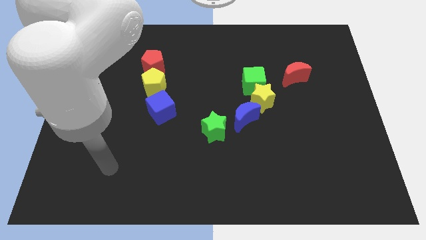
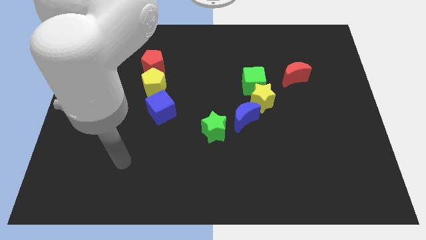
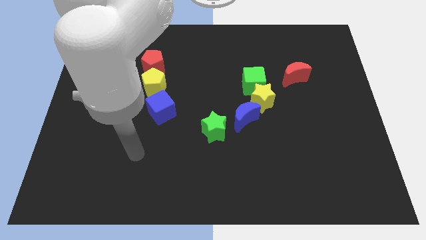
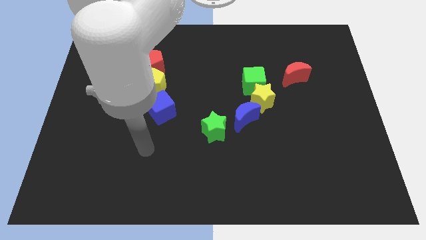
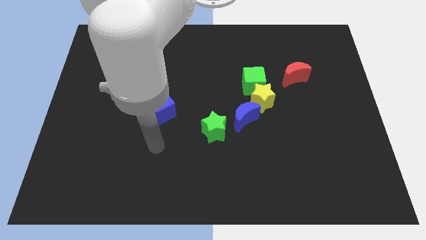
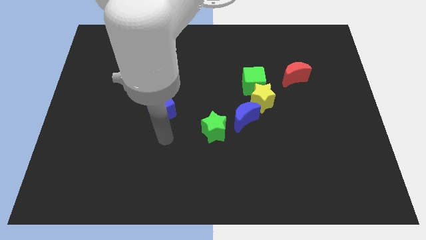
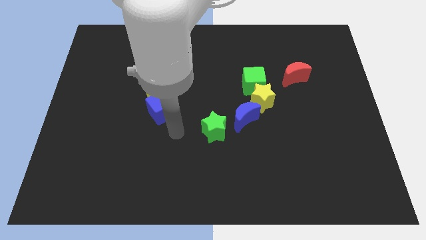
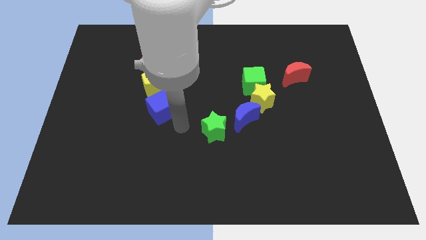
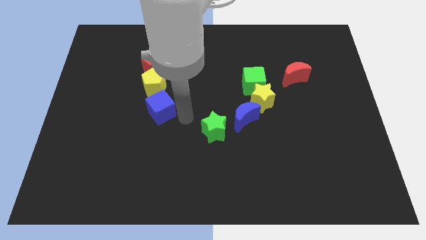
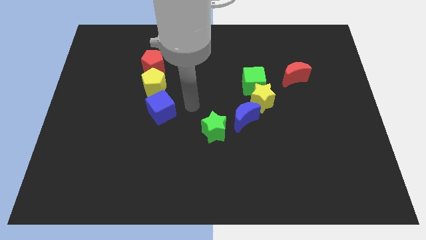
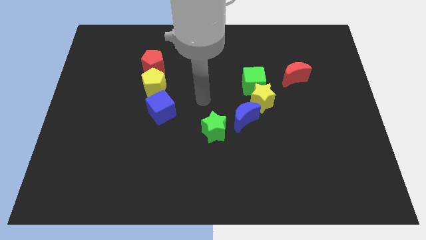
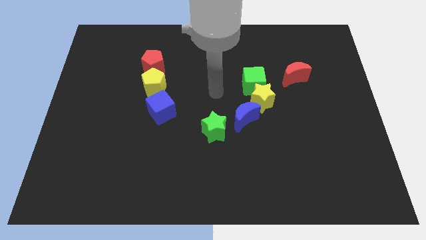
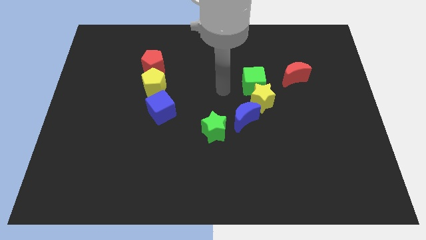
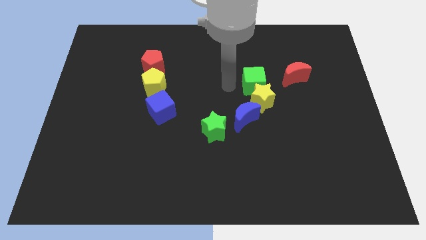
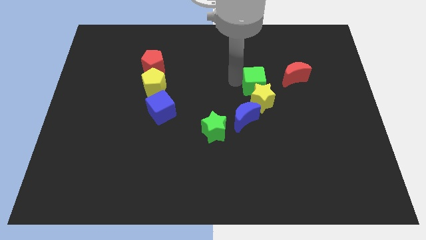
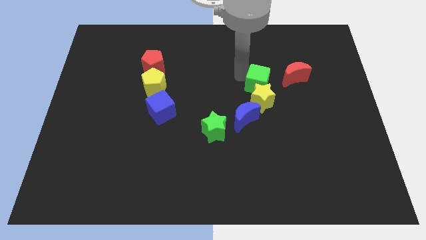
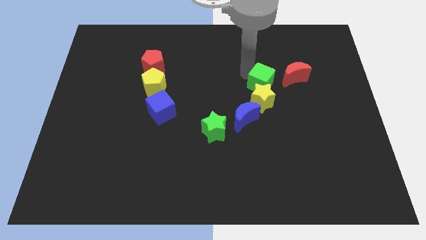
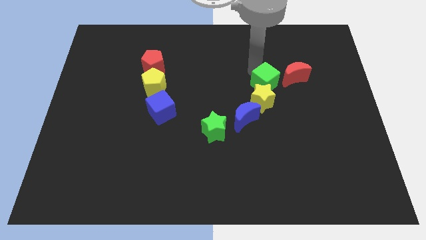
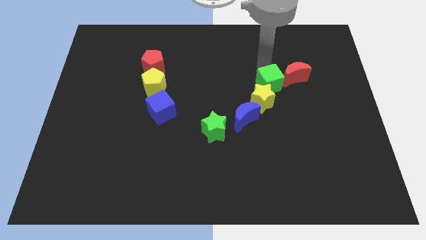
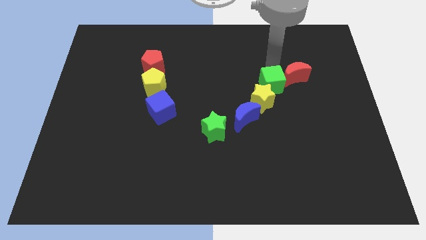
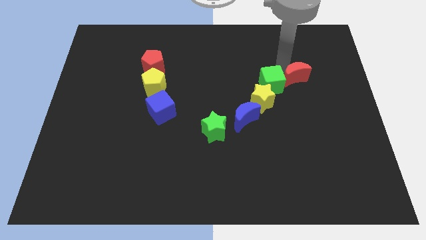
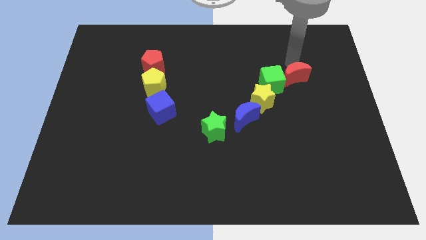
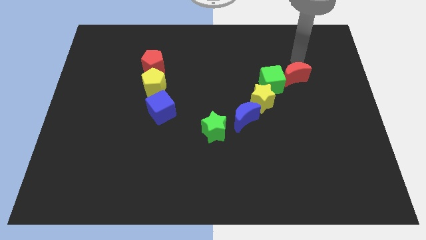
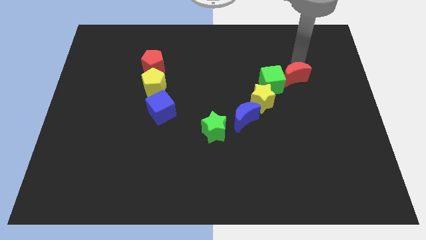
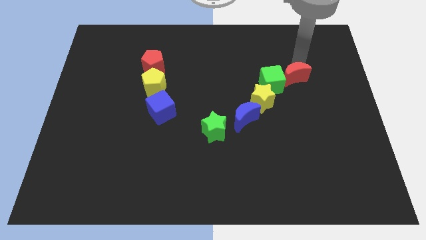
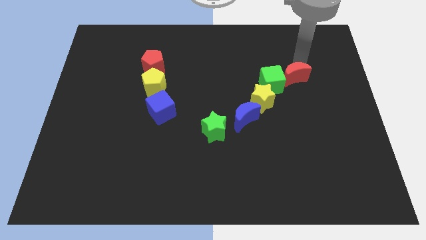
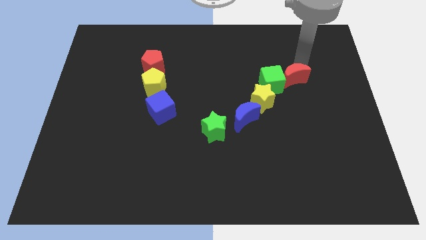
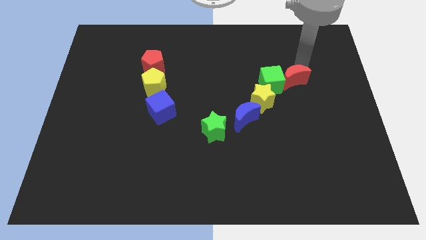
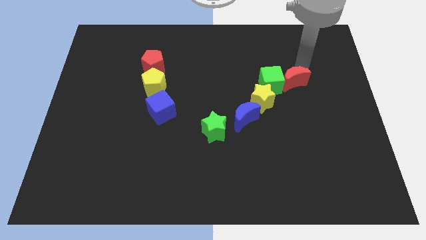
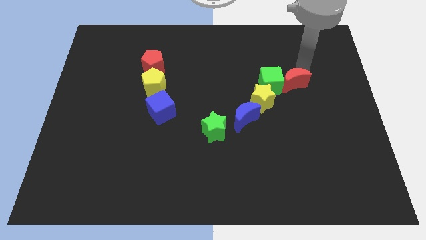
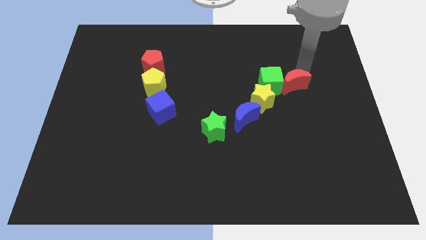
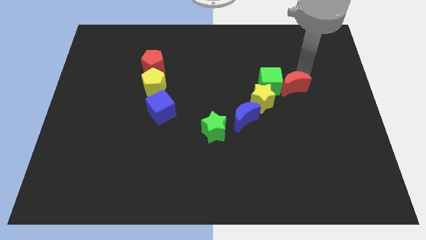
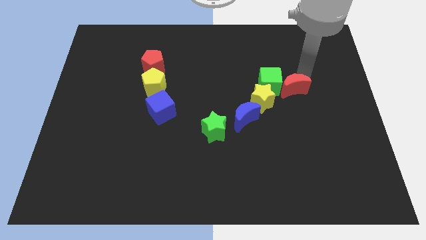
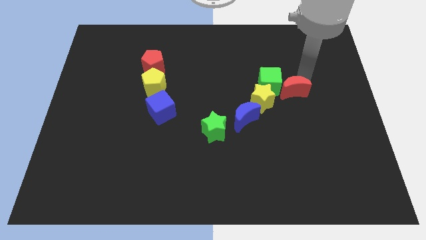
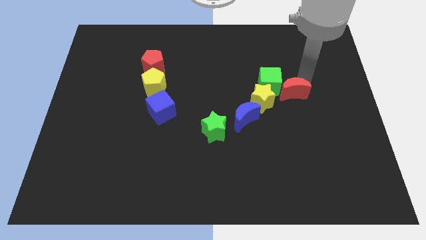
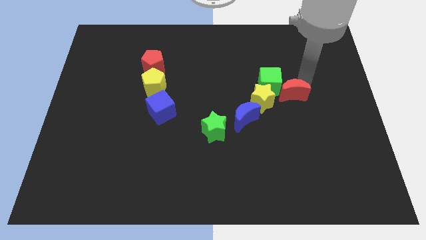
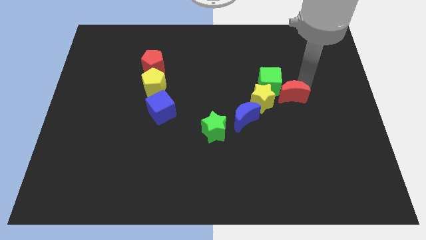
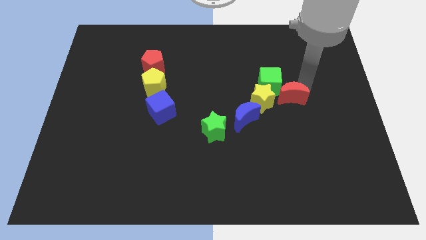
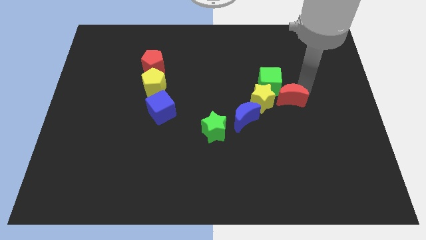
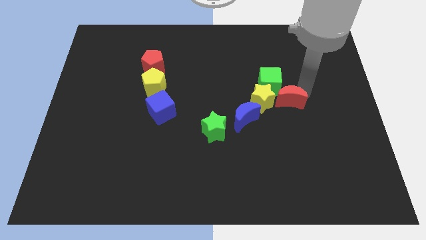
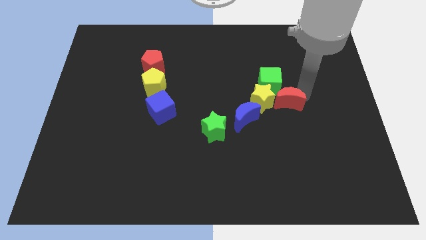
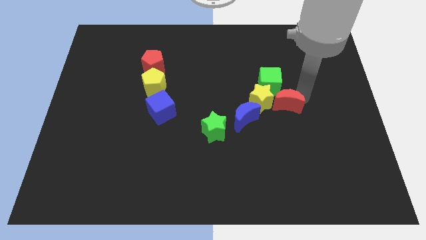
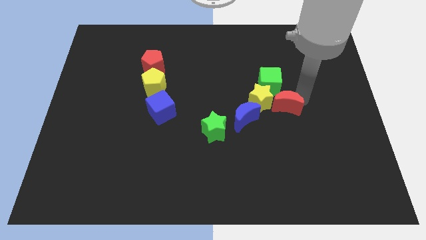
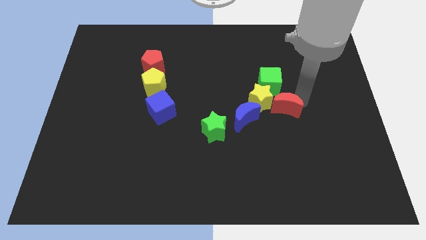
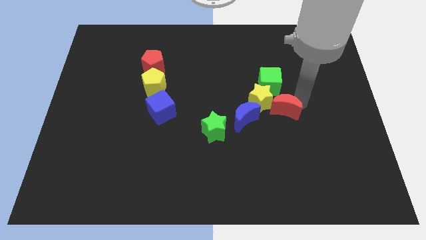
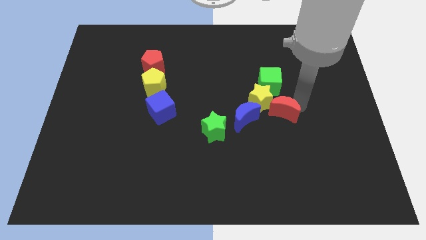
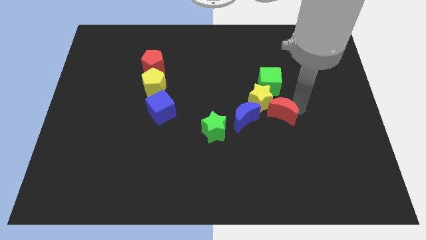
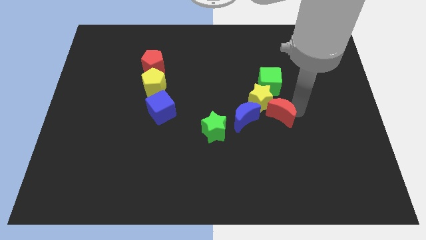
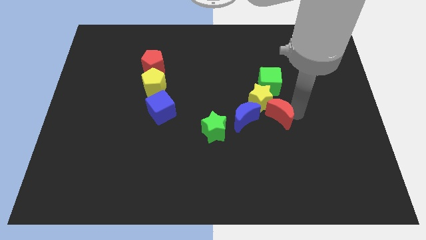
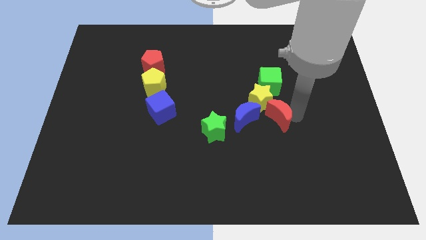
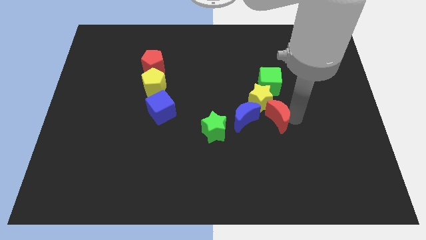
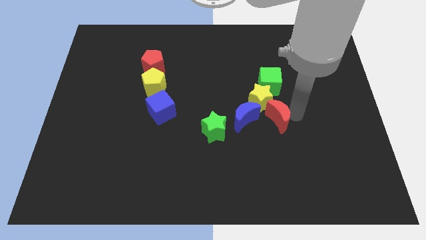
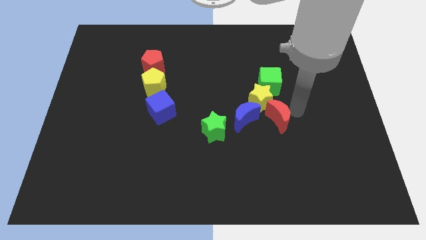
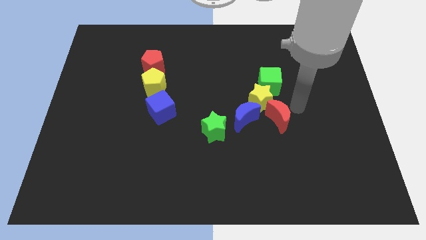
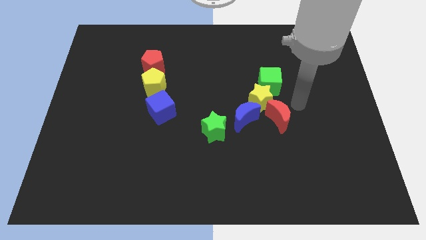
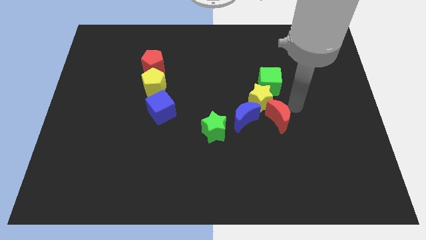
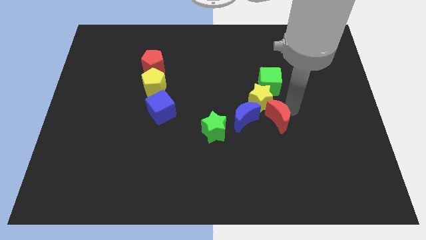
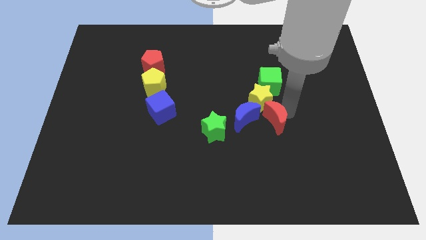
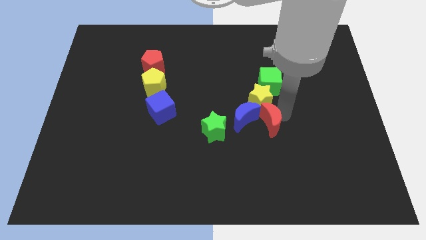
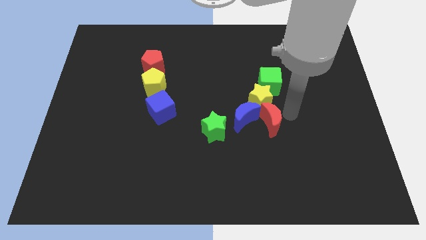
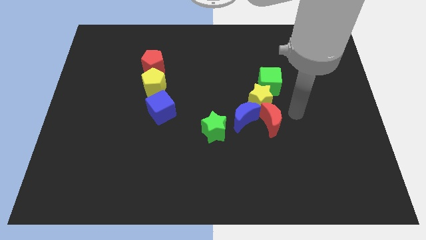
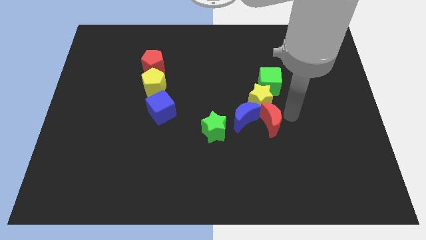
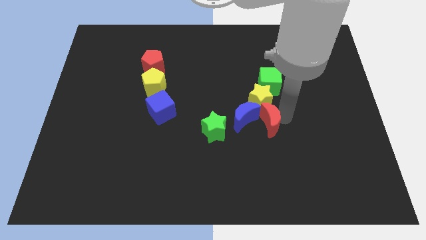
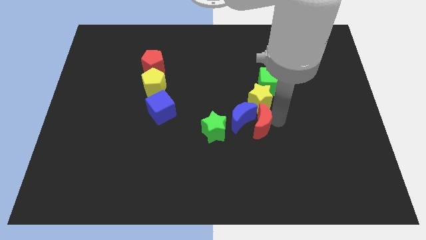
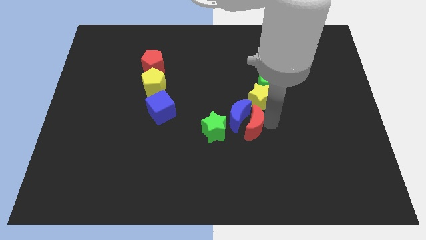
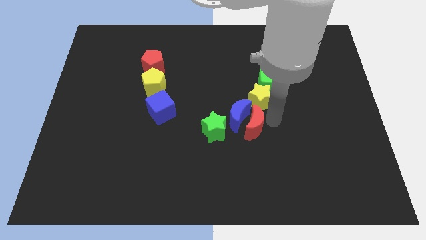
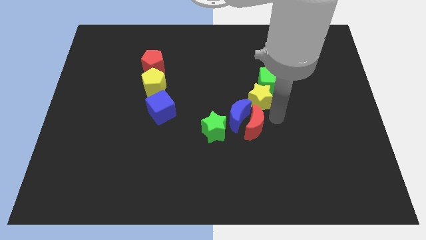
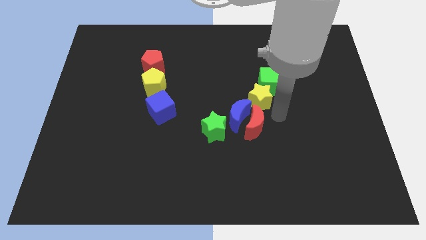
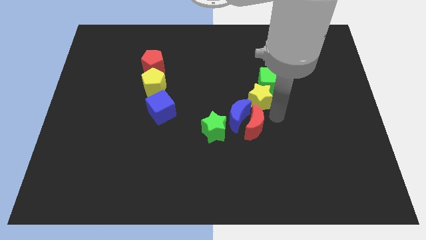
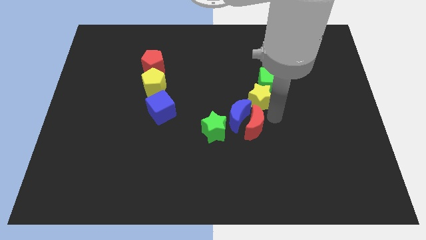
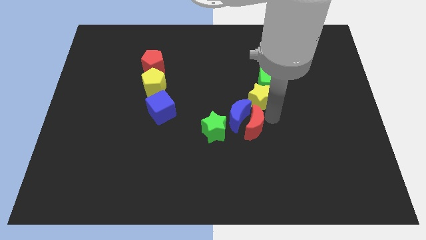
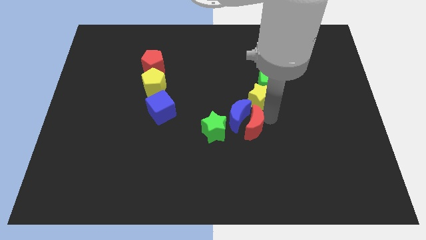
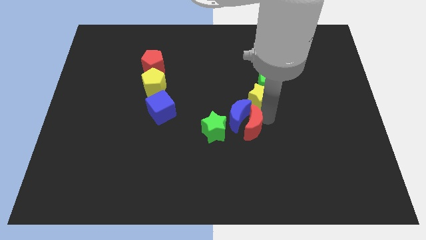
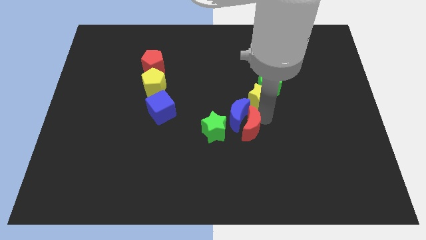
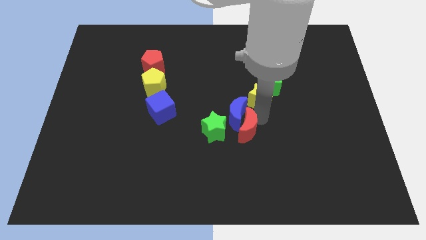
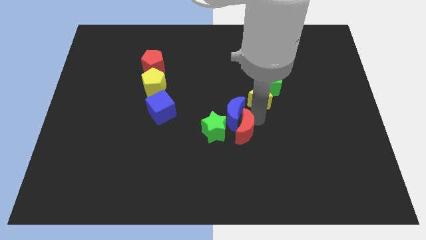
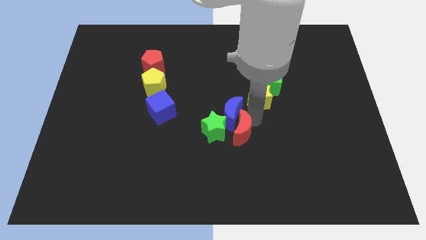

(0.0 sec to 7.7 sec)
push the red moon close to the green star
